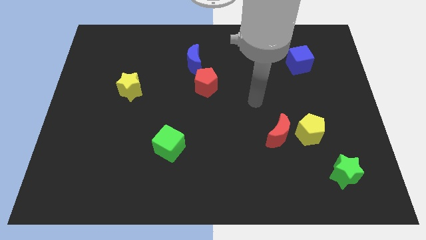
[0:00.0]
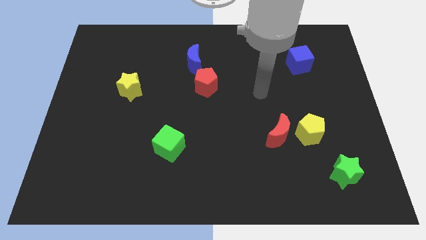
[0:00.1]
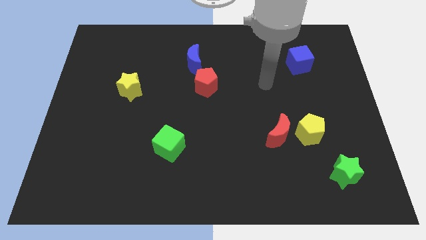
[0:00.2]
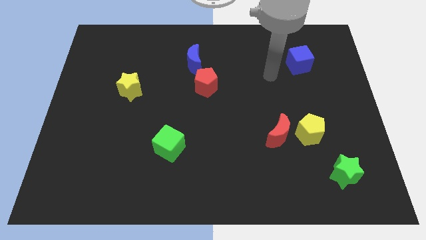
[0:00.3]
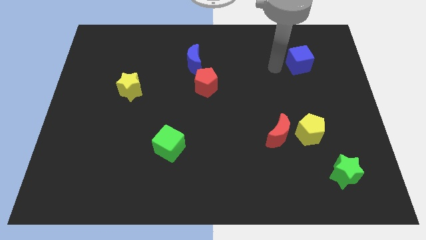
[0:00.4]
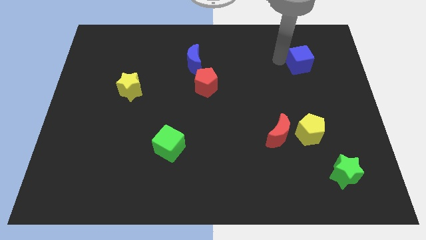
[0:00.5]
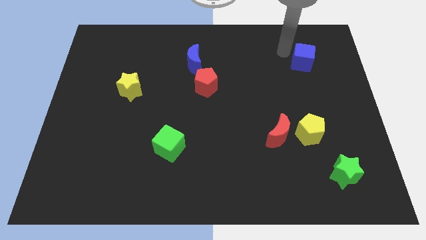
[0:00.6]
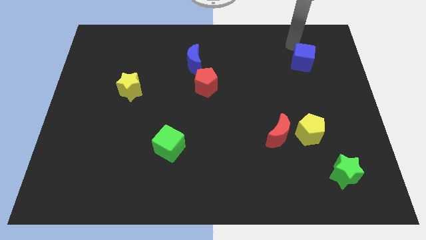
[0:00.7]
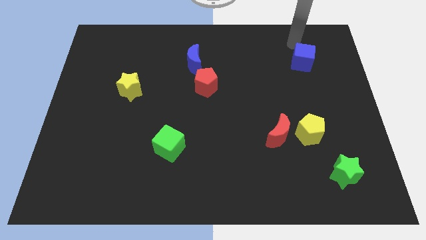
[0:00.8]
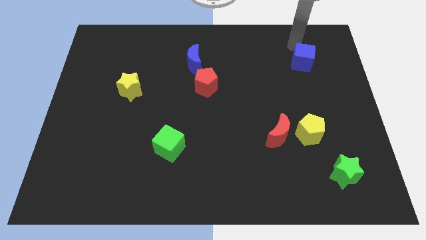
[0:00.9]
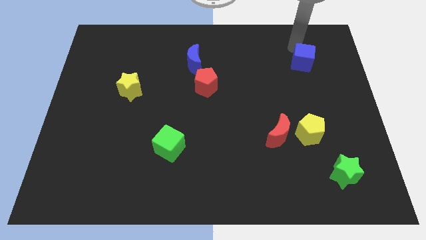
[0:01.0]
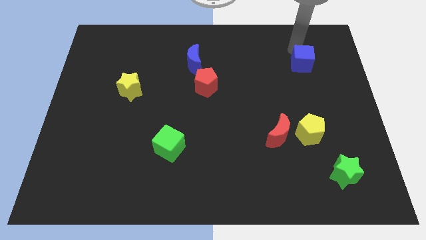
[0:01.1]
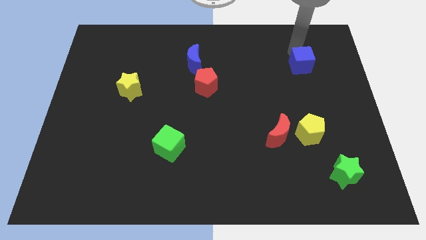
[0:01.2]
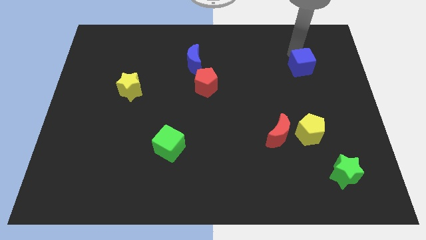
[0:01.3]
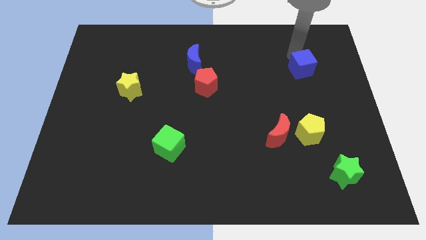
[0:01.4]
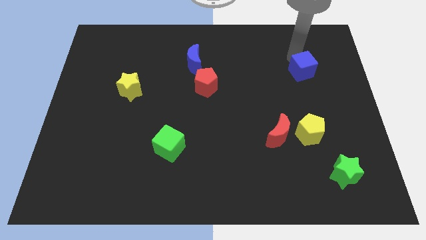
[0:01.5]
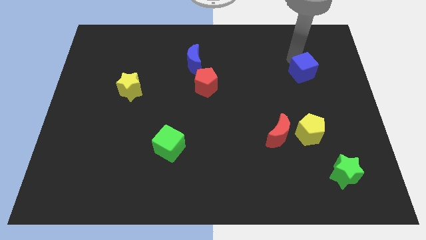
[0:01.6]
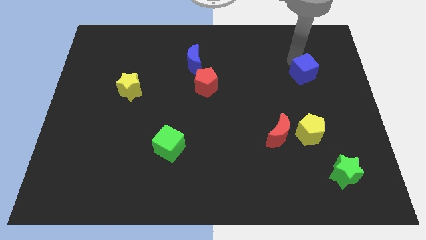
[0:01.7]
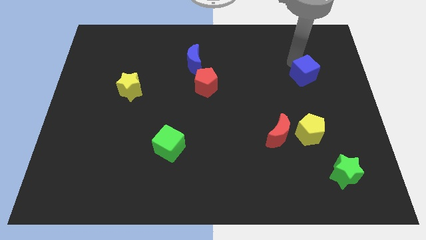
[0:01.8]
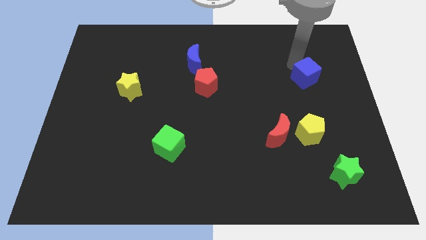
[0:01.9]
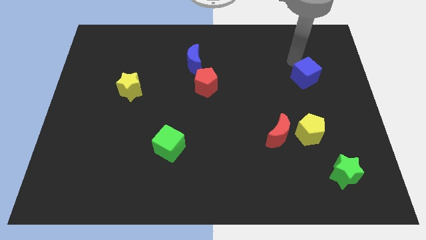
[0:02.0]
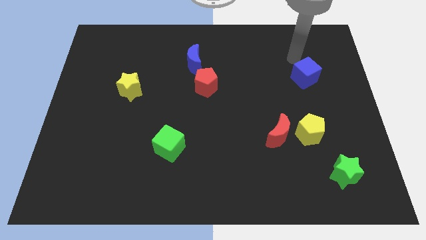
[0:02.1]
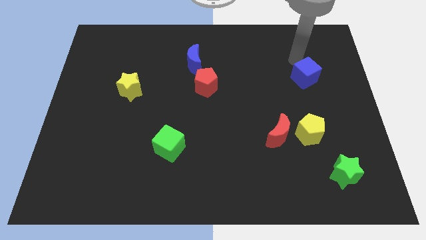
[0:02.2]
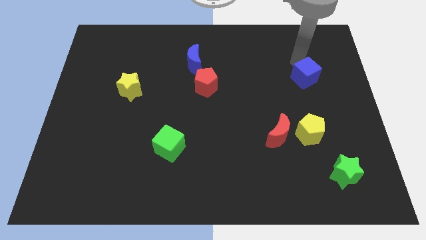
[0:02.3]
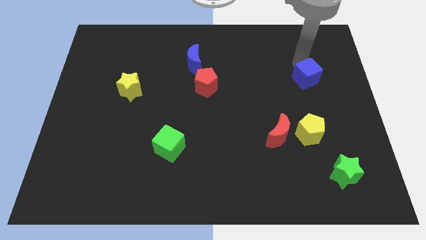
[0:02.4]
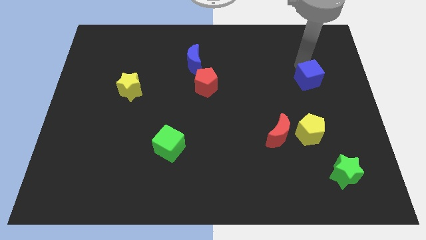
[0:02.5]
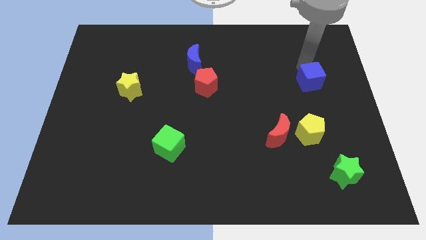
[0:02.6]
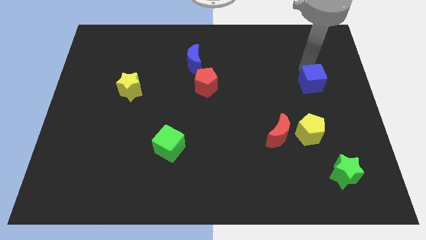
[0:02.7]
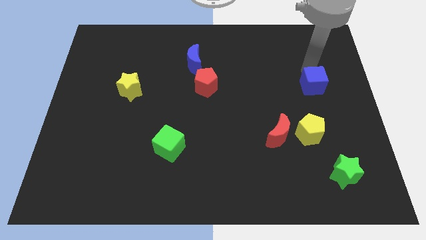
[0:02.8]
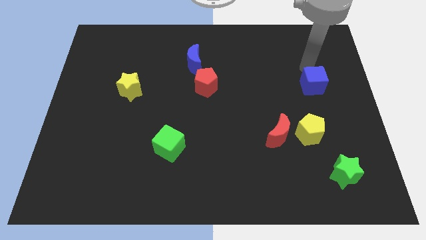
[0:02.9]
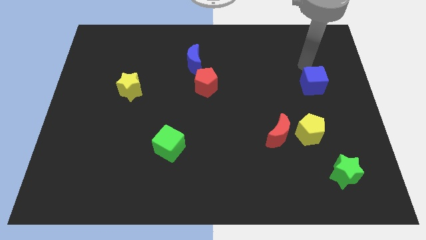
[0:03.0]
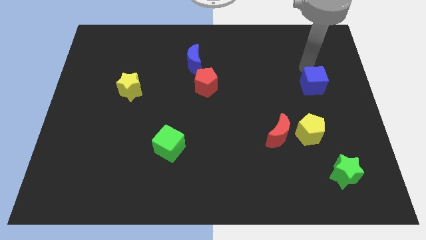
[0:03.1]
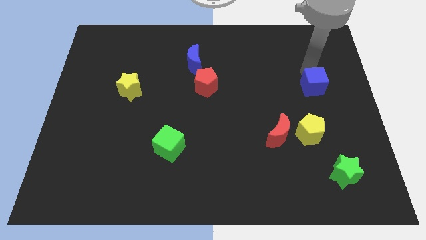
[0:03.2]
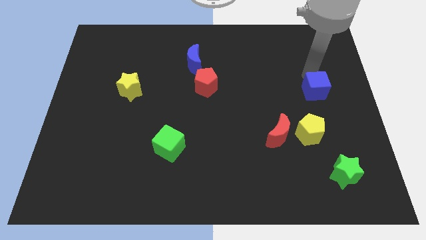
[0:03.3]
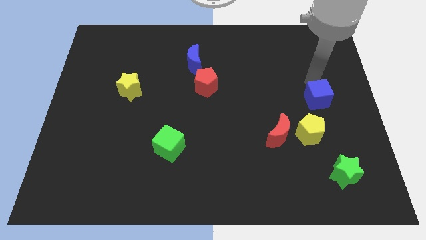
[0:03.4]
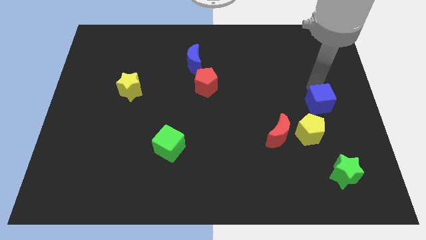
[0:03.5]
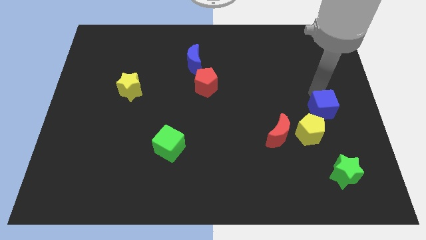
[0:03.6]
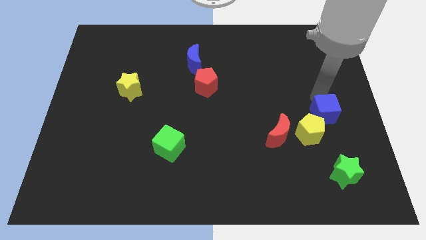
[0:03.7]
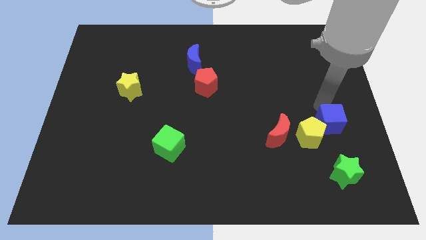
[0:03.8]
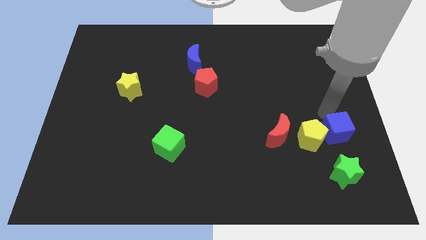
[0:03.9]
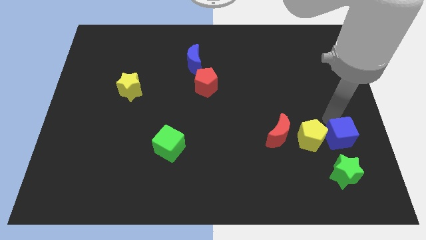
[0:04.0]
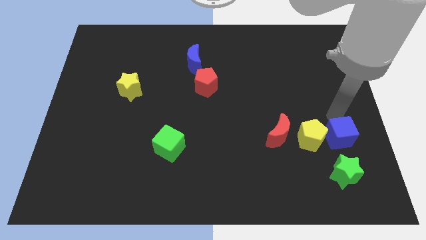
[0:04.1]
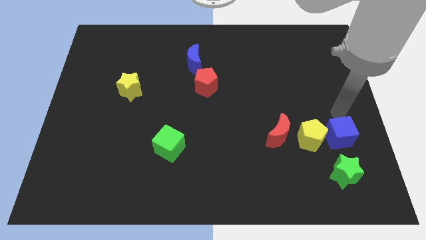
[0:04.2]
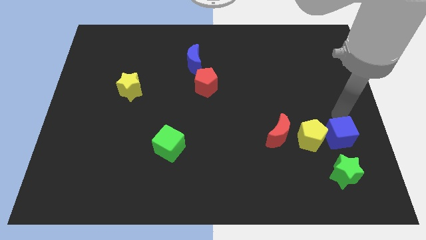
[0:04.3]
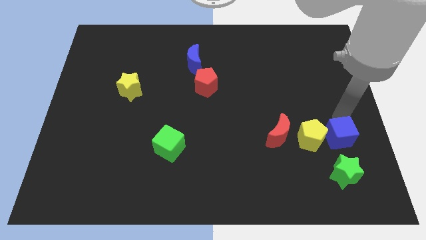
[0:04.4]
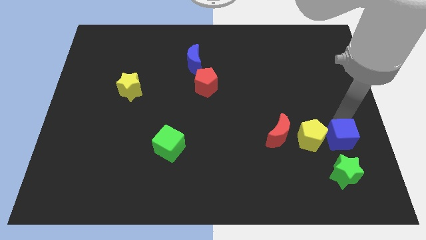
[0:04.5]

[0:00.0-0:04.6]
push the blue cube diagonally down and to the right of the yellow pentagon

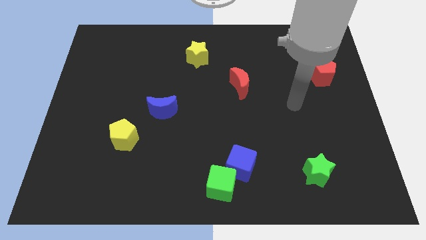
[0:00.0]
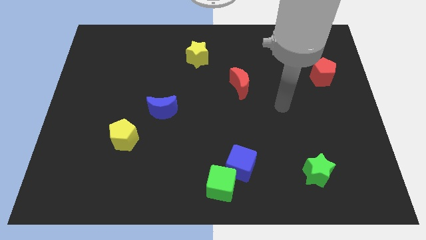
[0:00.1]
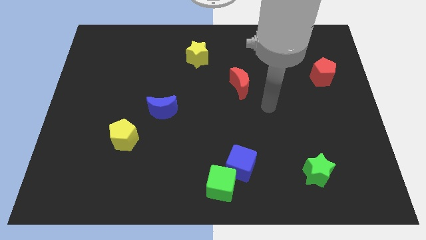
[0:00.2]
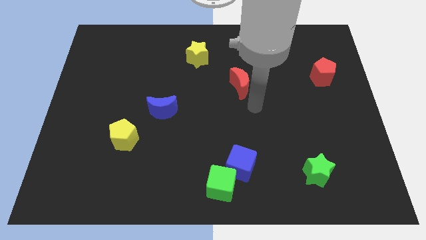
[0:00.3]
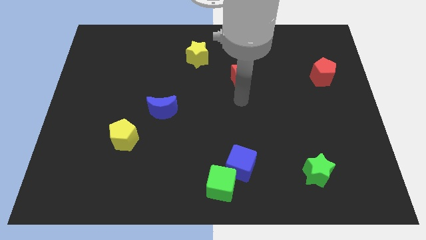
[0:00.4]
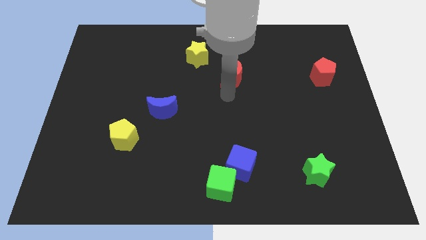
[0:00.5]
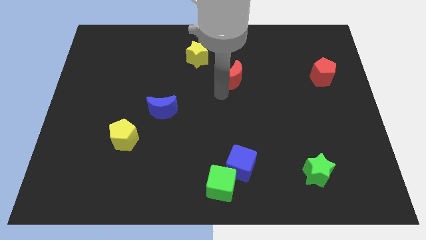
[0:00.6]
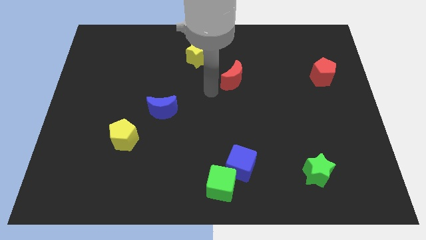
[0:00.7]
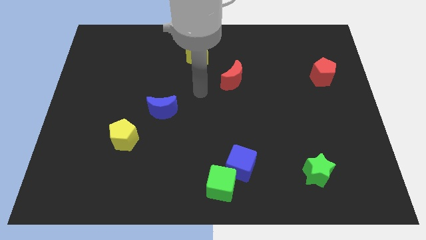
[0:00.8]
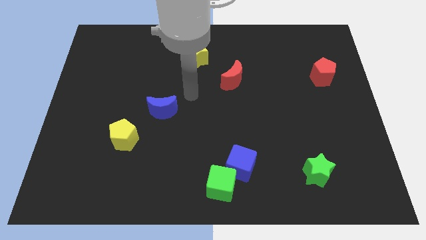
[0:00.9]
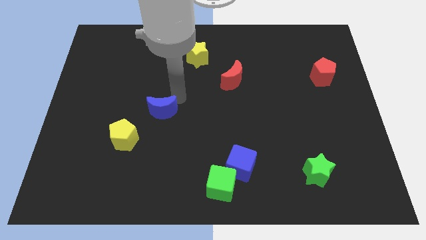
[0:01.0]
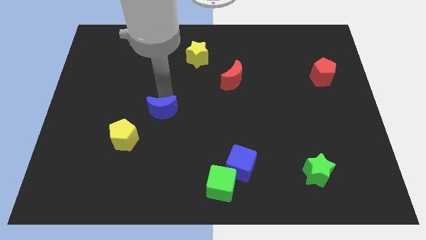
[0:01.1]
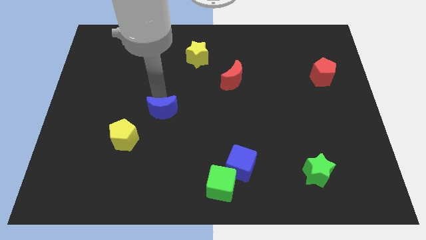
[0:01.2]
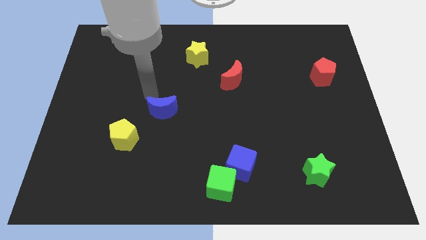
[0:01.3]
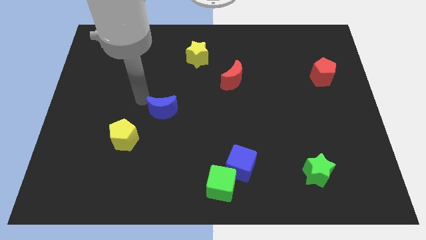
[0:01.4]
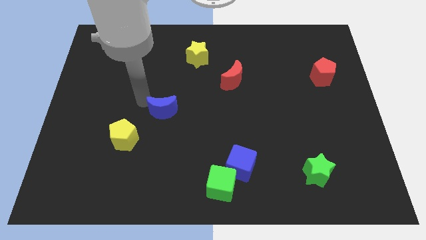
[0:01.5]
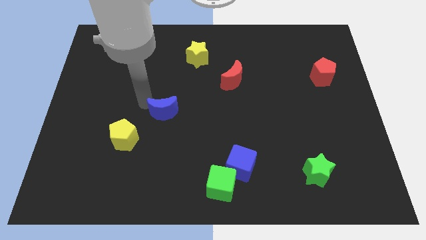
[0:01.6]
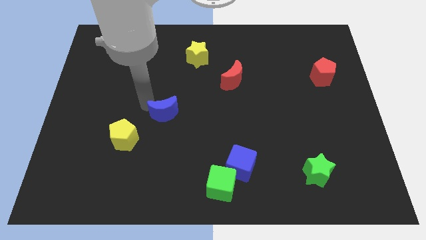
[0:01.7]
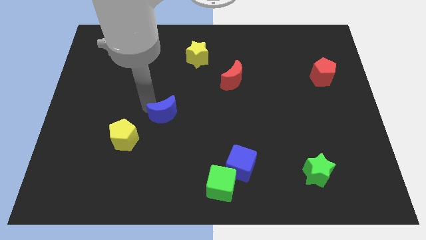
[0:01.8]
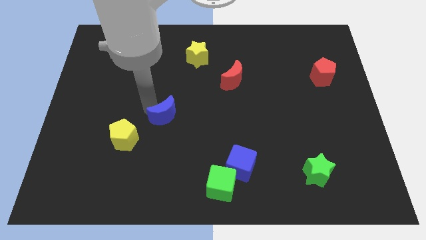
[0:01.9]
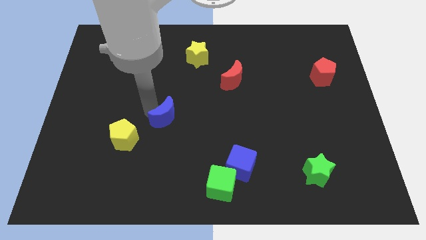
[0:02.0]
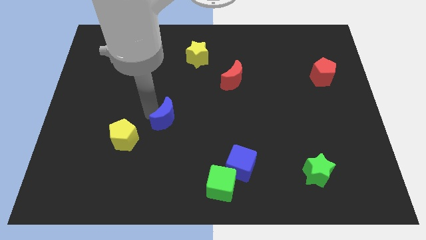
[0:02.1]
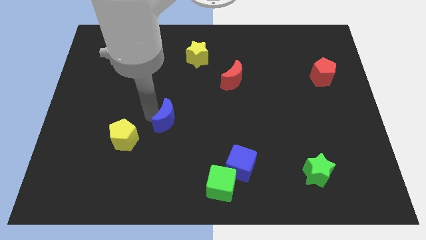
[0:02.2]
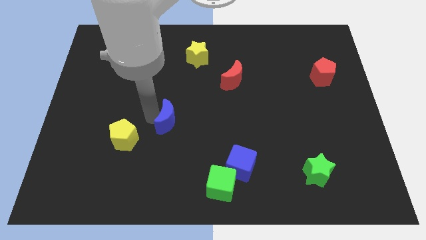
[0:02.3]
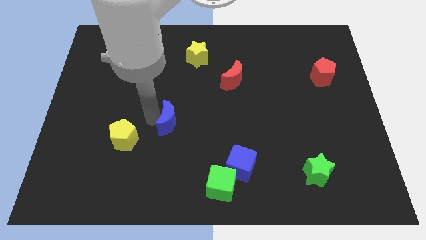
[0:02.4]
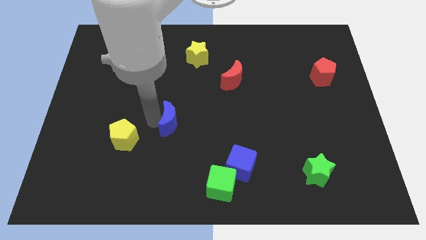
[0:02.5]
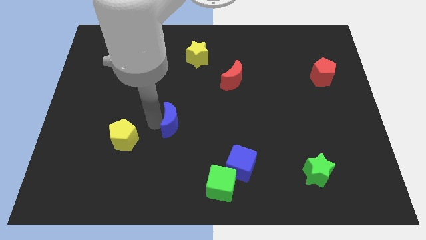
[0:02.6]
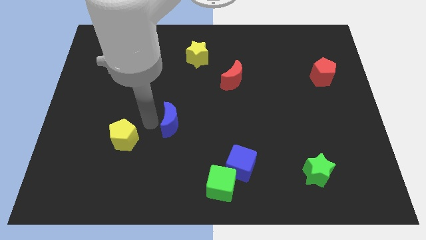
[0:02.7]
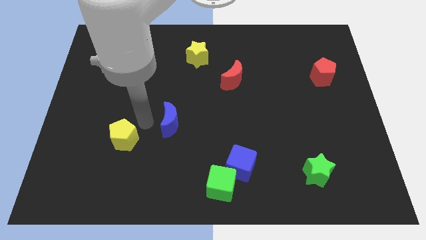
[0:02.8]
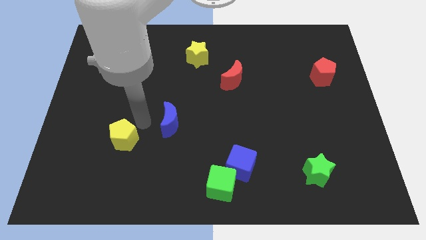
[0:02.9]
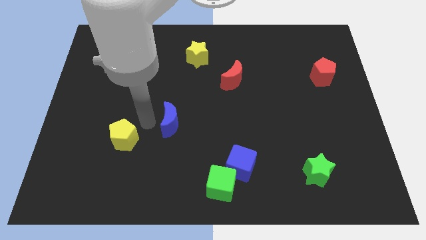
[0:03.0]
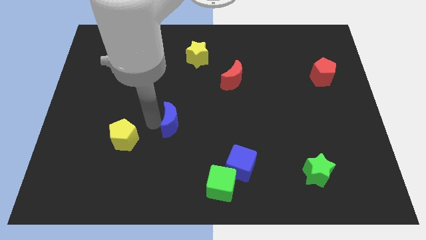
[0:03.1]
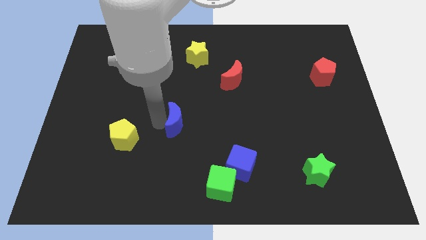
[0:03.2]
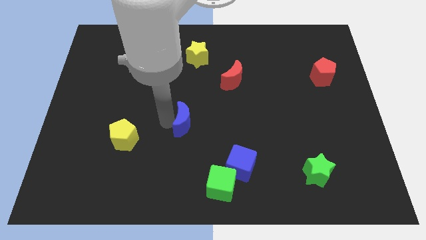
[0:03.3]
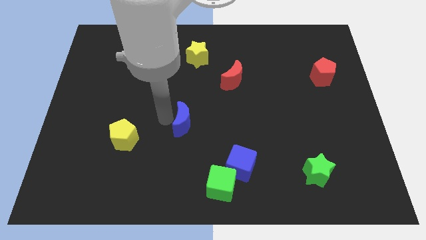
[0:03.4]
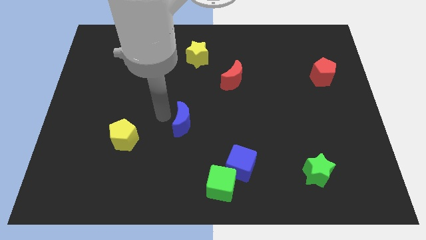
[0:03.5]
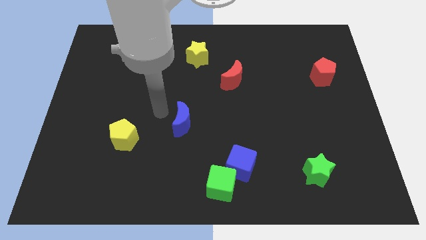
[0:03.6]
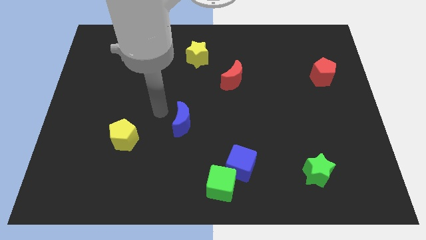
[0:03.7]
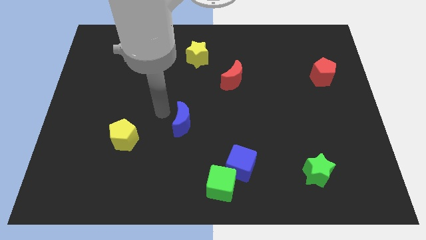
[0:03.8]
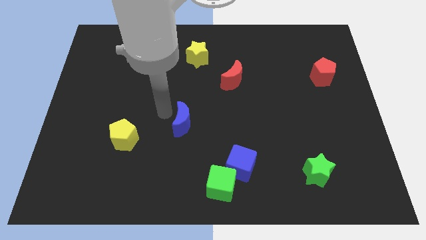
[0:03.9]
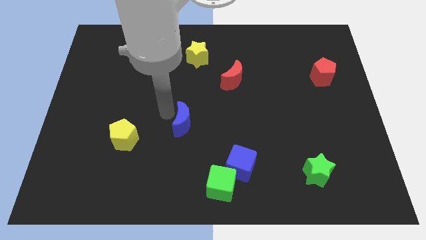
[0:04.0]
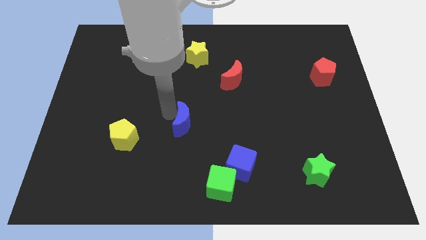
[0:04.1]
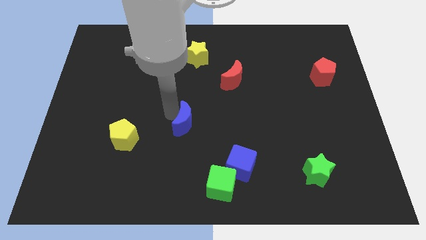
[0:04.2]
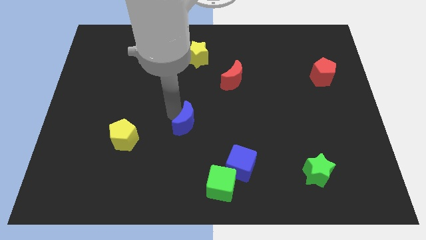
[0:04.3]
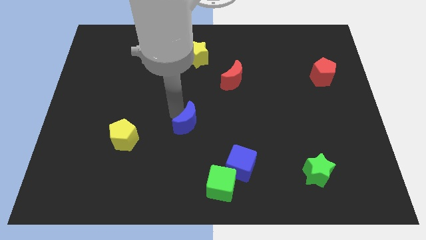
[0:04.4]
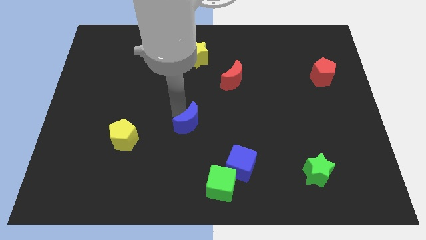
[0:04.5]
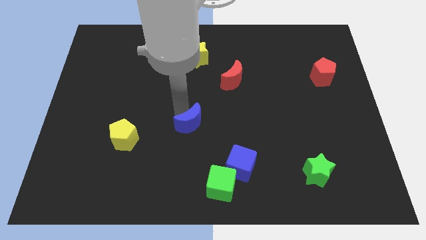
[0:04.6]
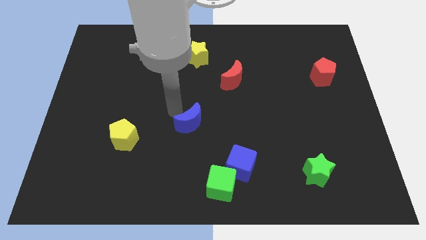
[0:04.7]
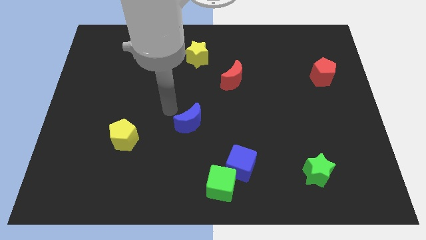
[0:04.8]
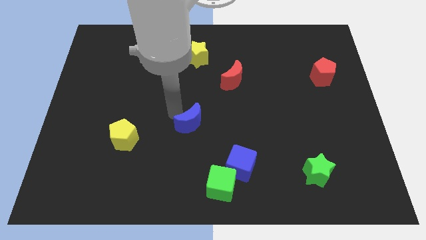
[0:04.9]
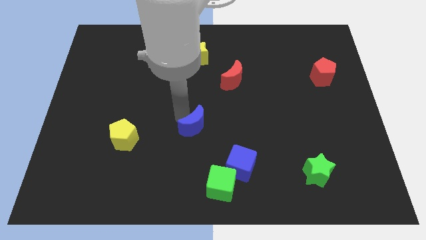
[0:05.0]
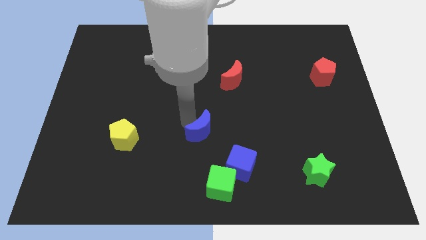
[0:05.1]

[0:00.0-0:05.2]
put the blue moon above the green cube
